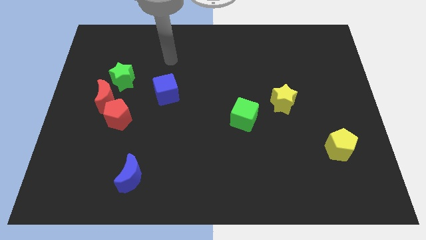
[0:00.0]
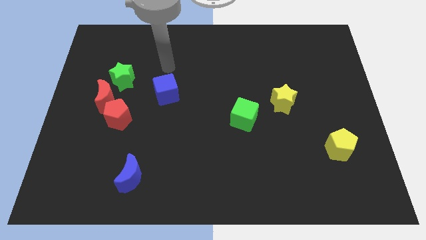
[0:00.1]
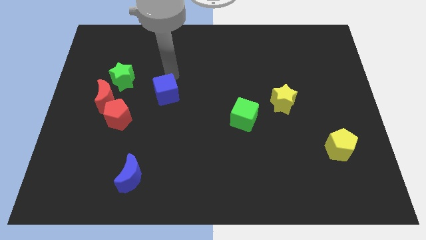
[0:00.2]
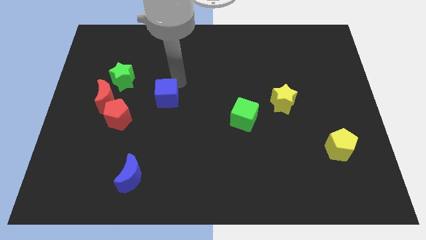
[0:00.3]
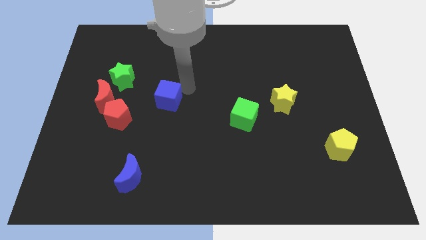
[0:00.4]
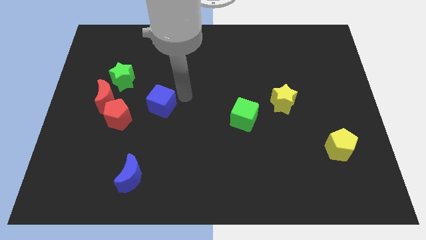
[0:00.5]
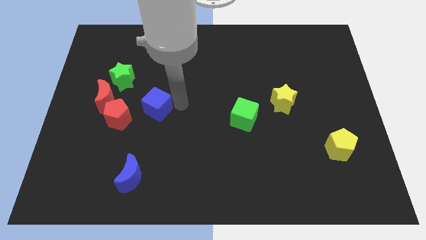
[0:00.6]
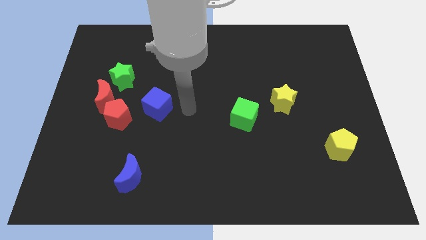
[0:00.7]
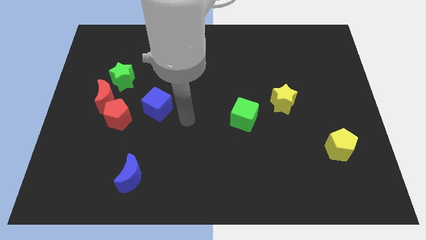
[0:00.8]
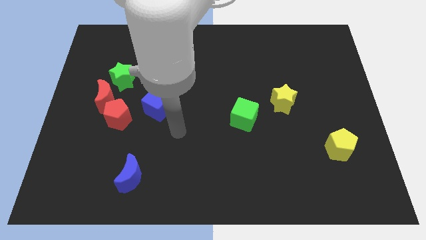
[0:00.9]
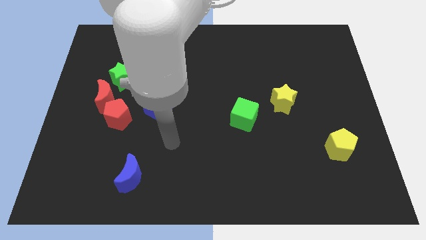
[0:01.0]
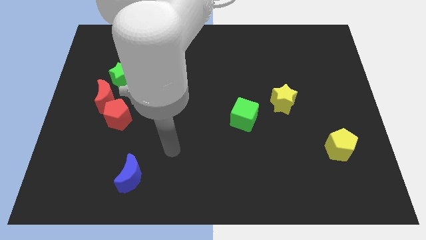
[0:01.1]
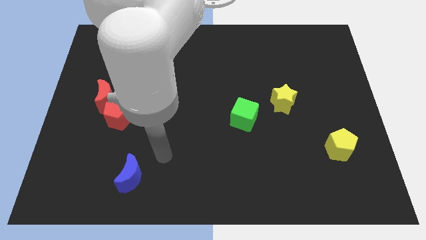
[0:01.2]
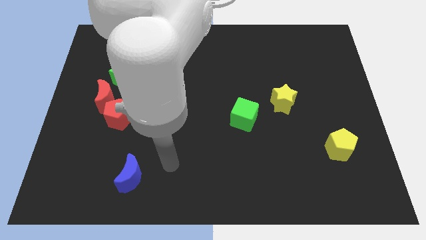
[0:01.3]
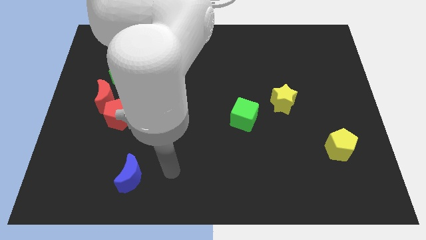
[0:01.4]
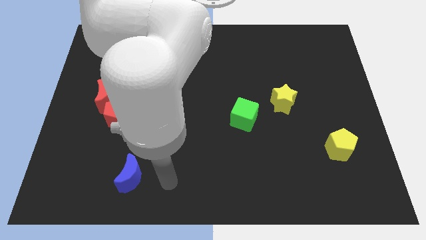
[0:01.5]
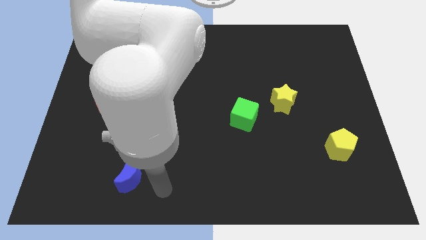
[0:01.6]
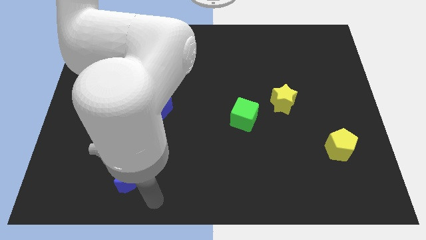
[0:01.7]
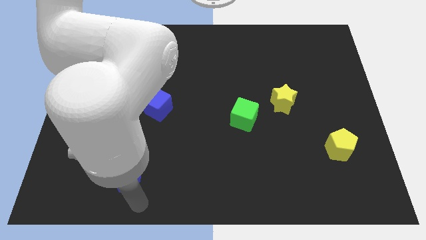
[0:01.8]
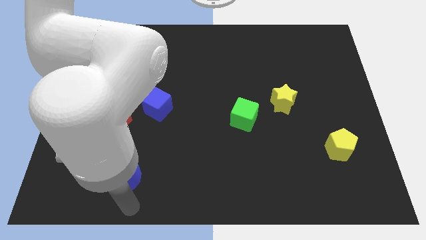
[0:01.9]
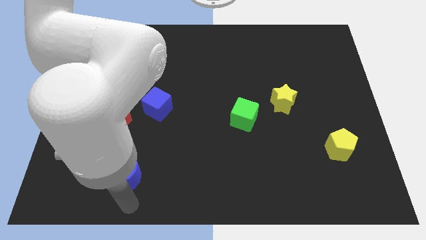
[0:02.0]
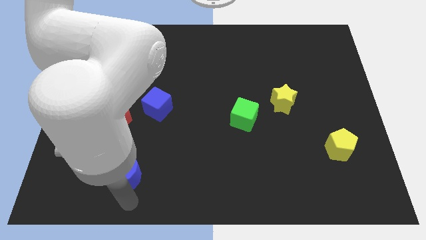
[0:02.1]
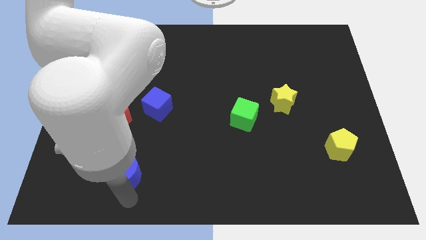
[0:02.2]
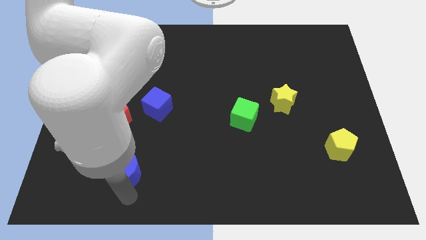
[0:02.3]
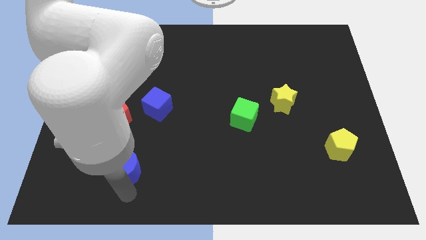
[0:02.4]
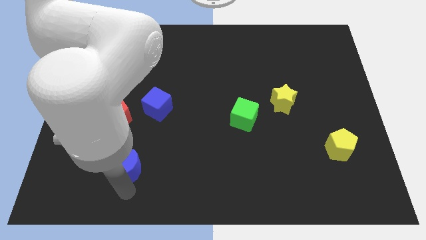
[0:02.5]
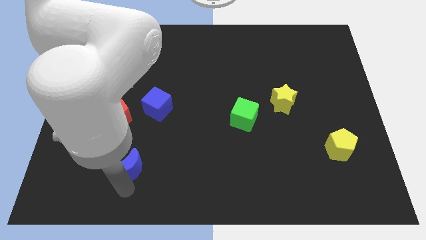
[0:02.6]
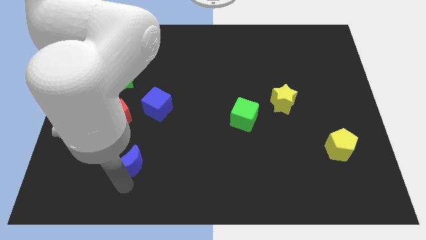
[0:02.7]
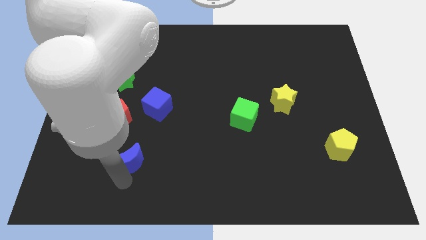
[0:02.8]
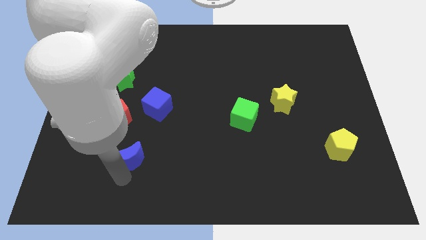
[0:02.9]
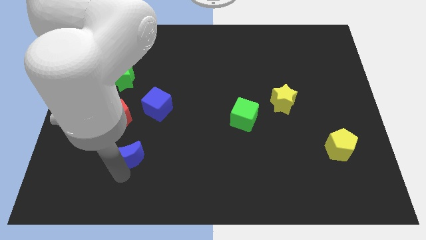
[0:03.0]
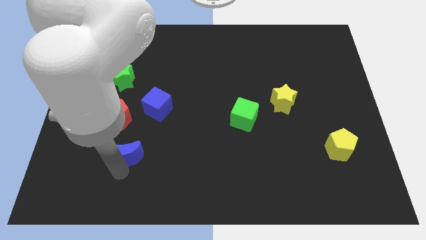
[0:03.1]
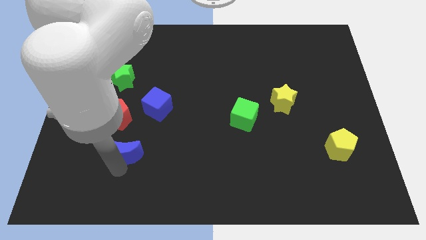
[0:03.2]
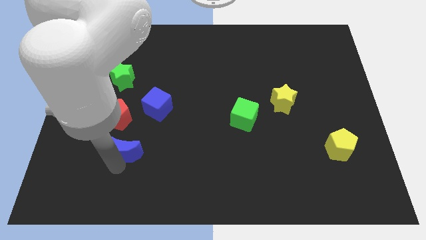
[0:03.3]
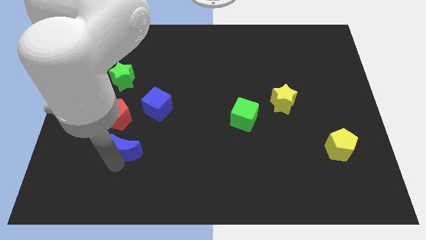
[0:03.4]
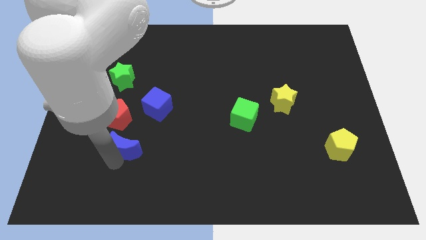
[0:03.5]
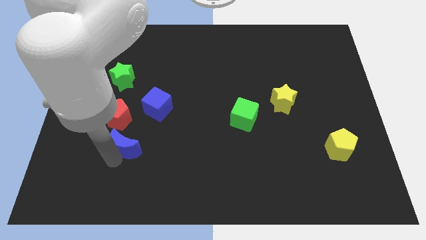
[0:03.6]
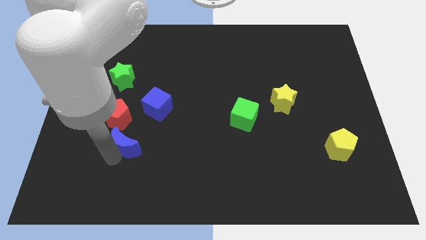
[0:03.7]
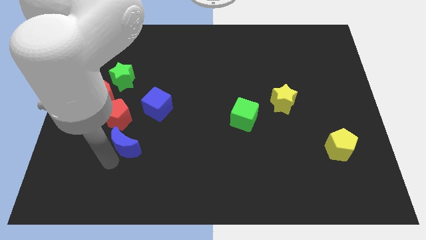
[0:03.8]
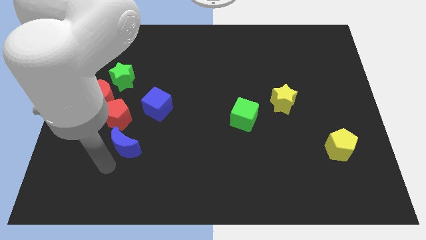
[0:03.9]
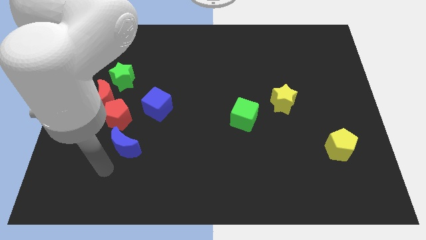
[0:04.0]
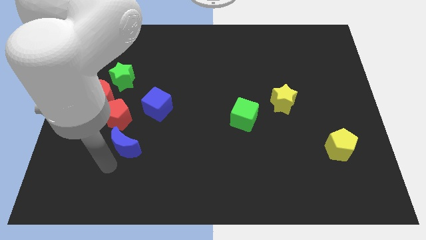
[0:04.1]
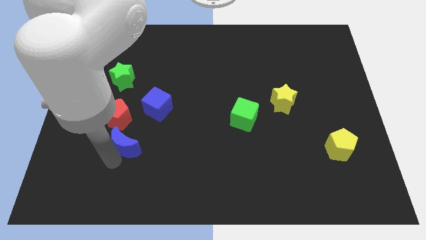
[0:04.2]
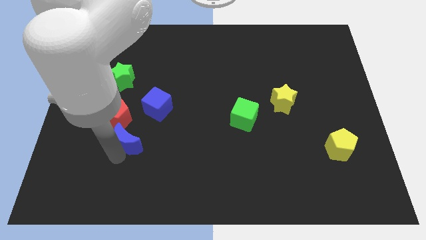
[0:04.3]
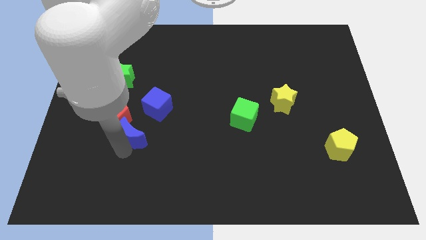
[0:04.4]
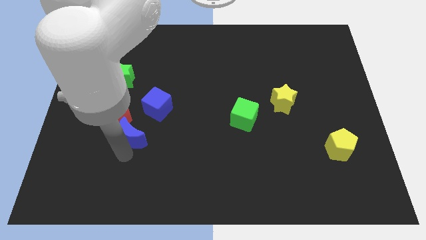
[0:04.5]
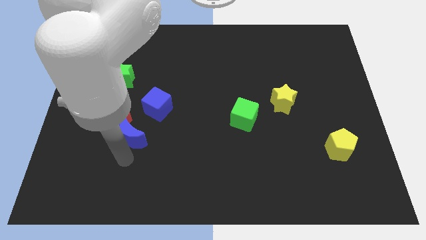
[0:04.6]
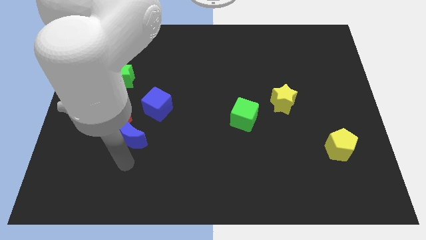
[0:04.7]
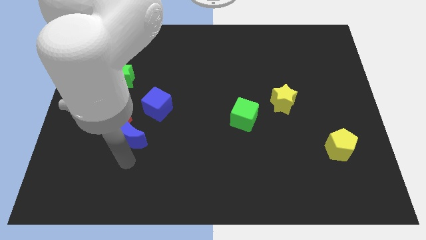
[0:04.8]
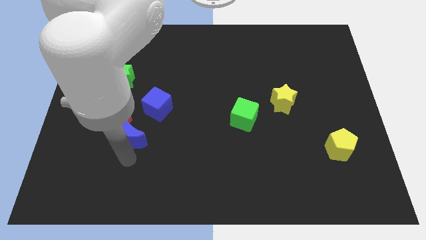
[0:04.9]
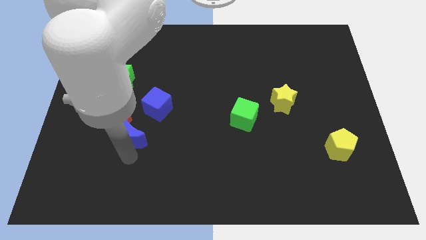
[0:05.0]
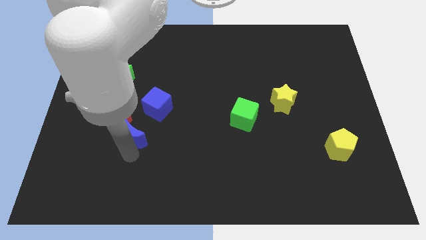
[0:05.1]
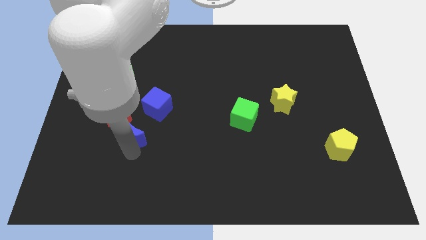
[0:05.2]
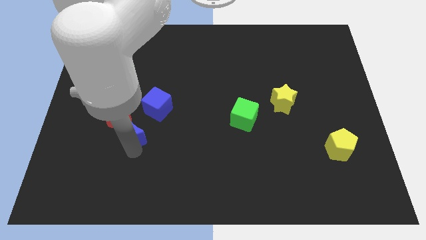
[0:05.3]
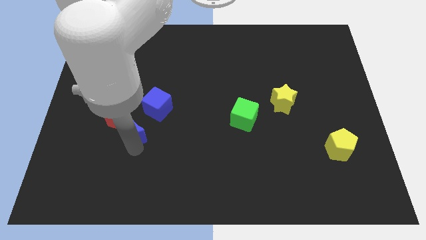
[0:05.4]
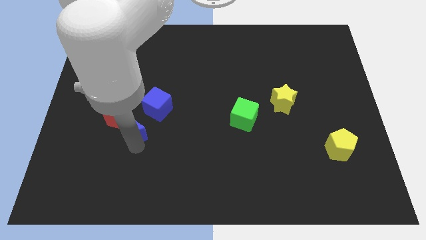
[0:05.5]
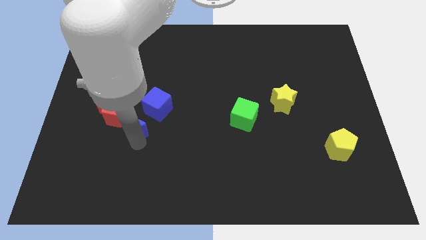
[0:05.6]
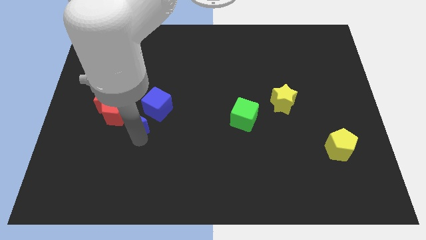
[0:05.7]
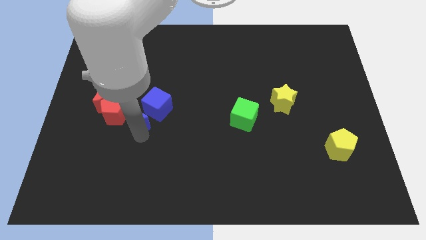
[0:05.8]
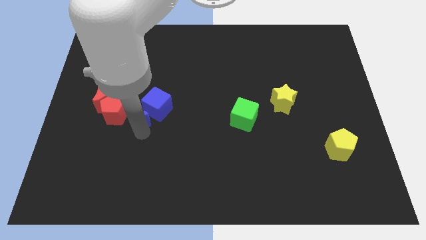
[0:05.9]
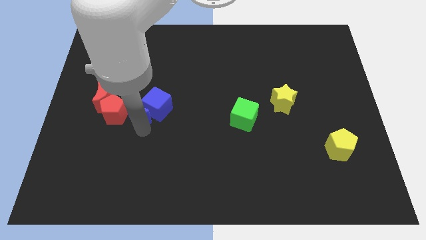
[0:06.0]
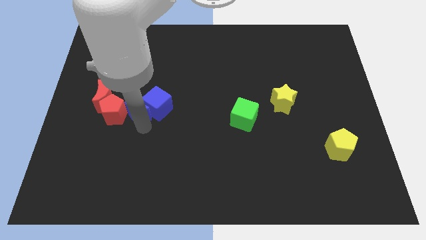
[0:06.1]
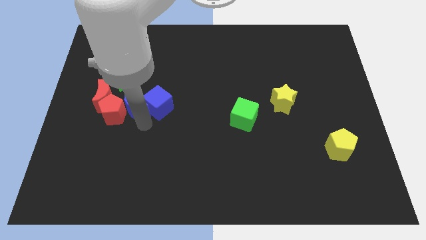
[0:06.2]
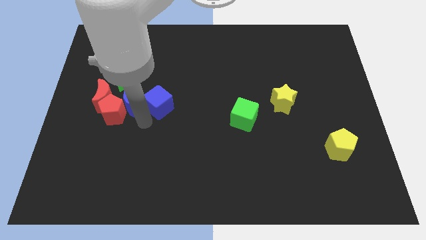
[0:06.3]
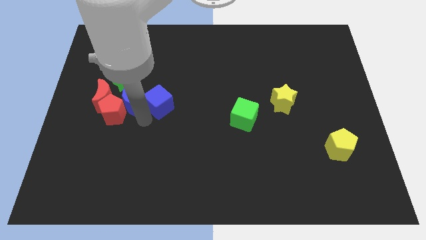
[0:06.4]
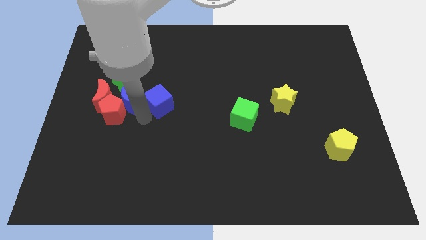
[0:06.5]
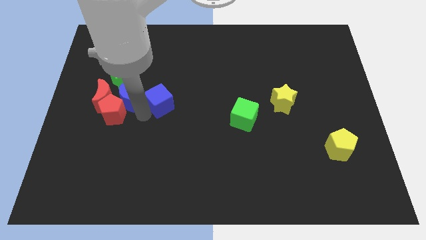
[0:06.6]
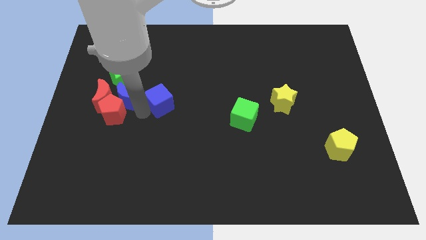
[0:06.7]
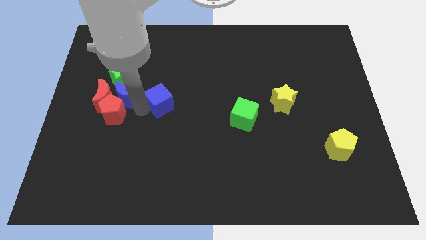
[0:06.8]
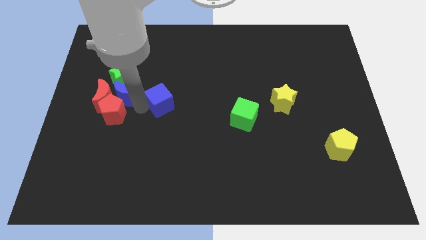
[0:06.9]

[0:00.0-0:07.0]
push the blue moon towards the green star
